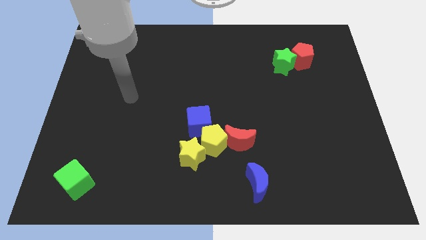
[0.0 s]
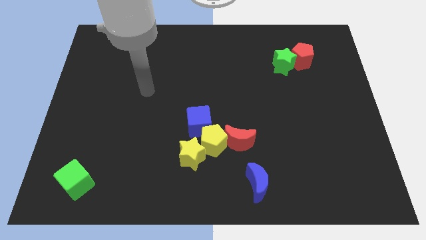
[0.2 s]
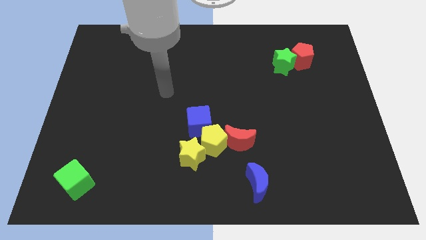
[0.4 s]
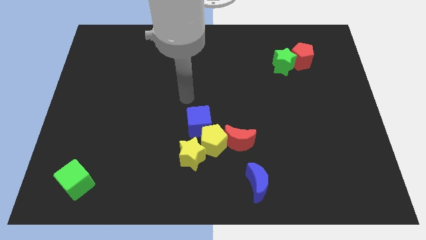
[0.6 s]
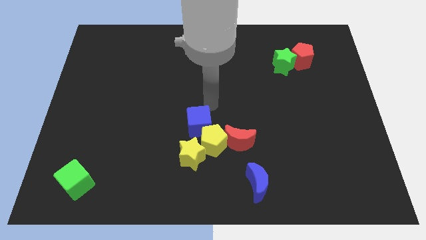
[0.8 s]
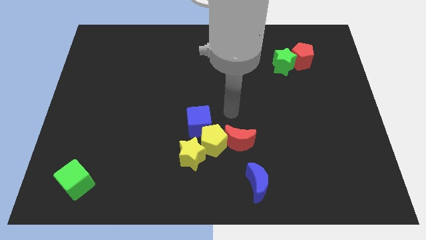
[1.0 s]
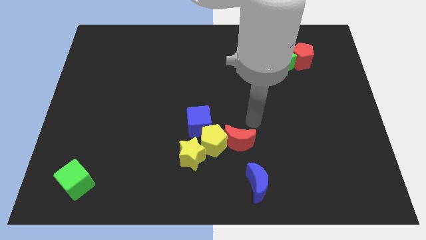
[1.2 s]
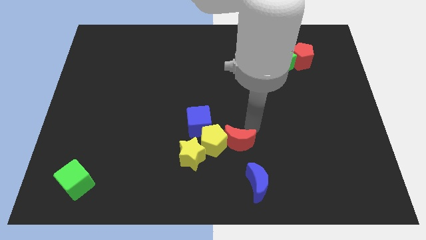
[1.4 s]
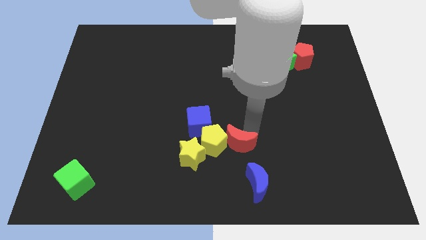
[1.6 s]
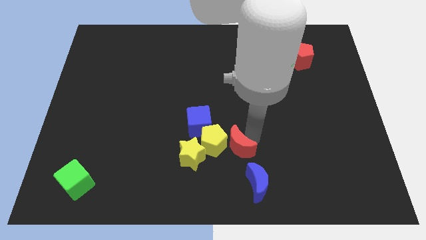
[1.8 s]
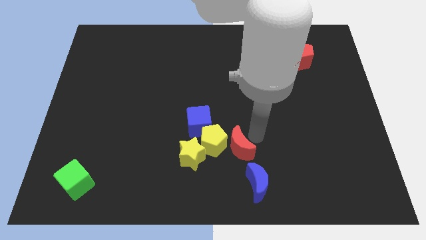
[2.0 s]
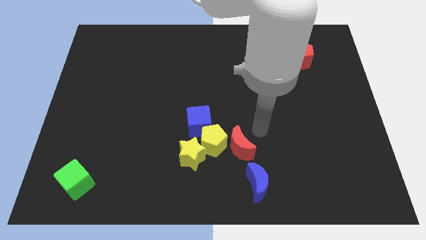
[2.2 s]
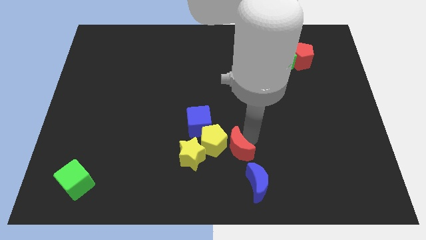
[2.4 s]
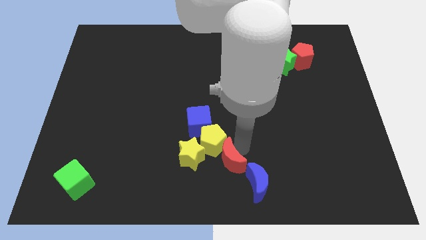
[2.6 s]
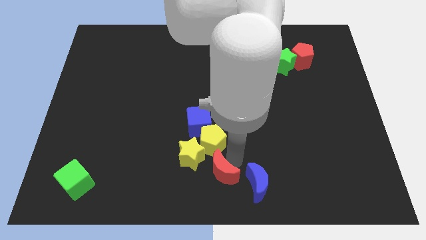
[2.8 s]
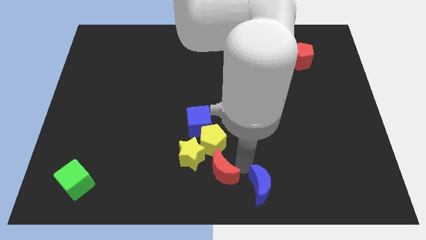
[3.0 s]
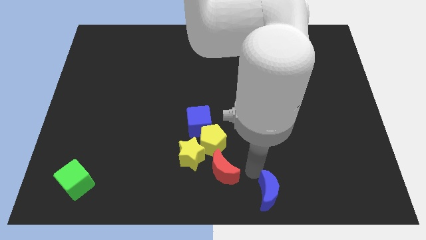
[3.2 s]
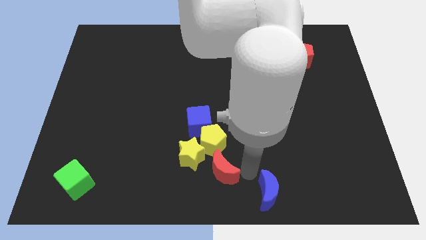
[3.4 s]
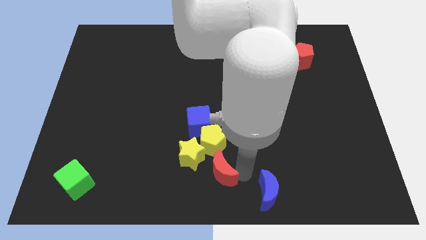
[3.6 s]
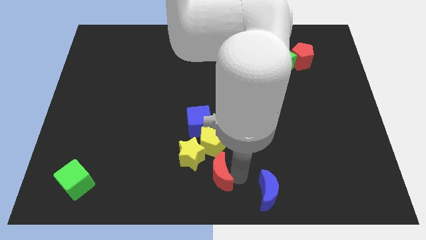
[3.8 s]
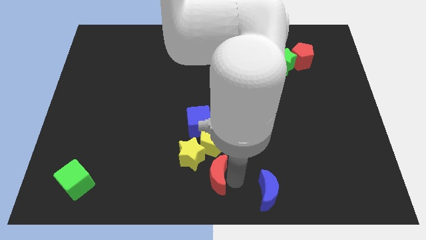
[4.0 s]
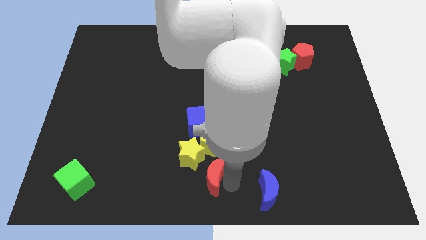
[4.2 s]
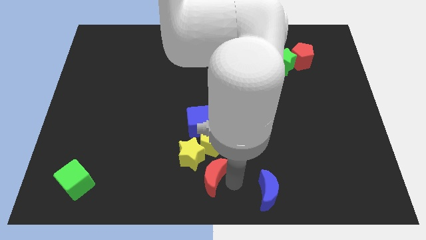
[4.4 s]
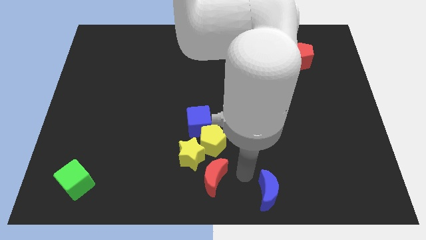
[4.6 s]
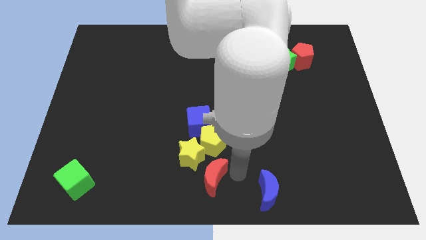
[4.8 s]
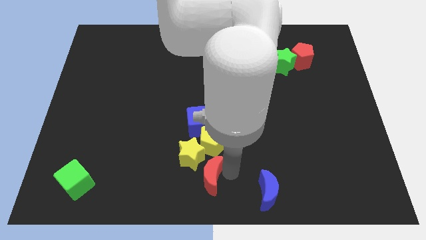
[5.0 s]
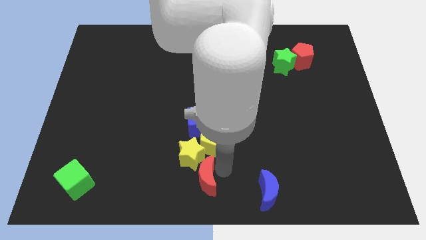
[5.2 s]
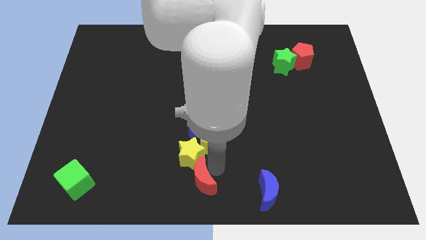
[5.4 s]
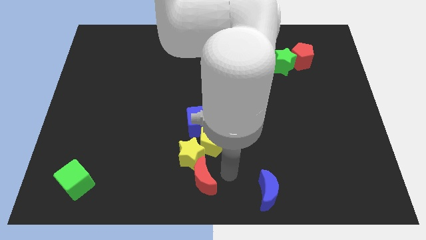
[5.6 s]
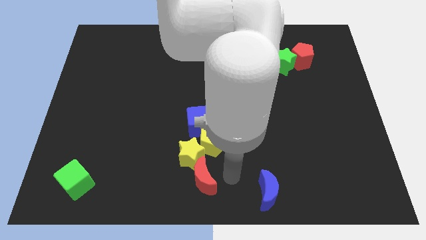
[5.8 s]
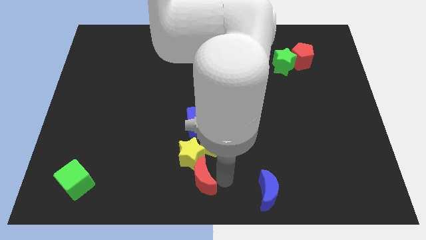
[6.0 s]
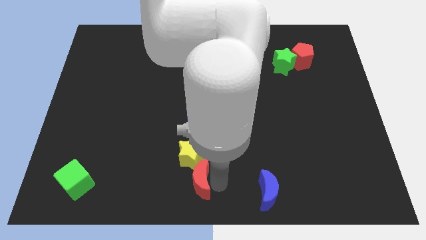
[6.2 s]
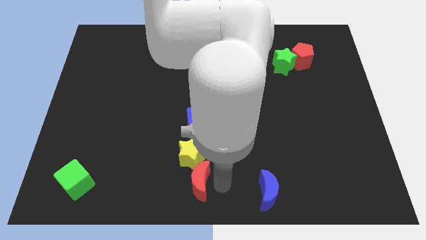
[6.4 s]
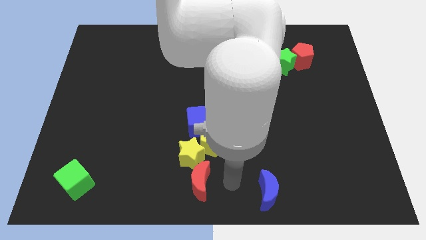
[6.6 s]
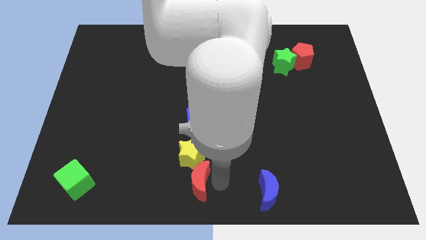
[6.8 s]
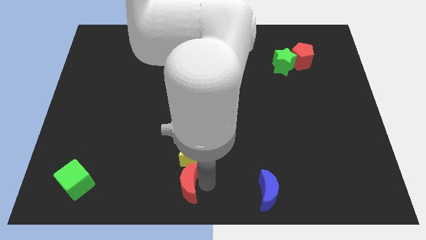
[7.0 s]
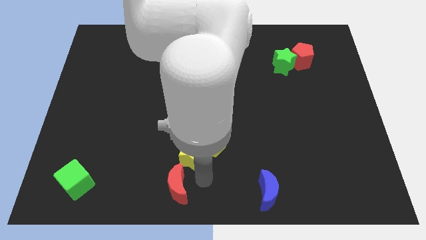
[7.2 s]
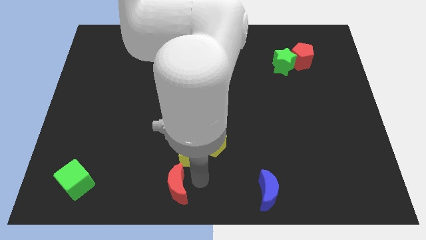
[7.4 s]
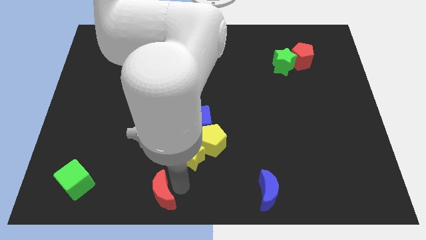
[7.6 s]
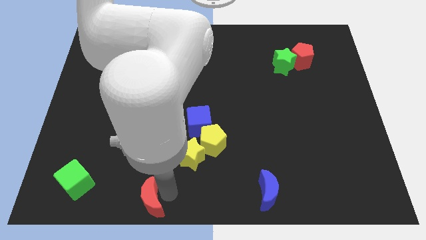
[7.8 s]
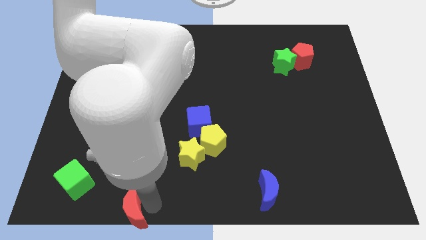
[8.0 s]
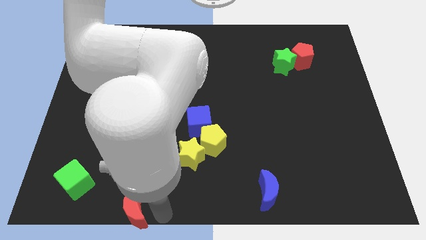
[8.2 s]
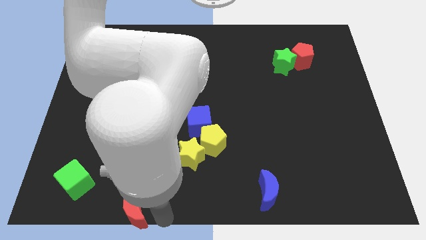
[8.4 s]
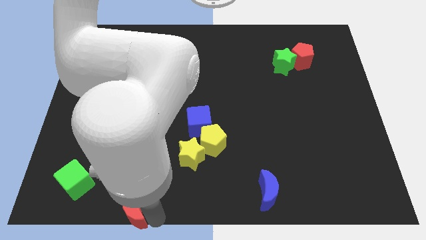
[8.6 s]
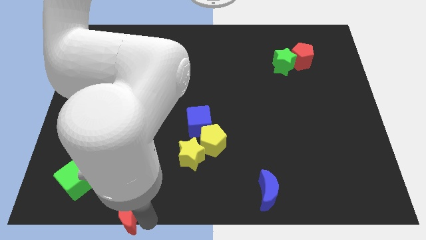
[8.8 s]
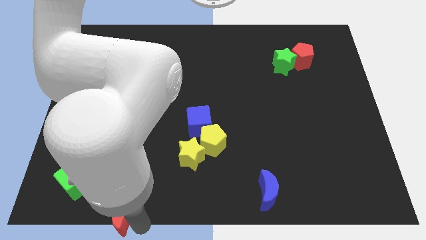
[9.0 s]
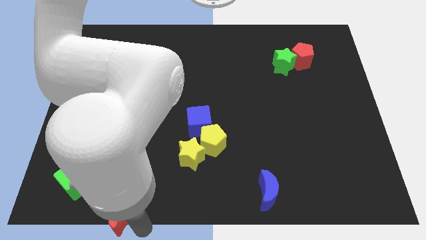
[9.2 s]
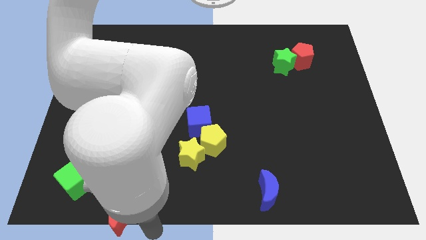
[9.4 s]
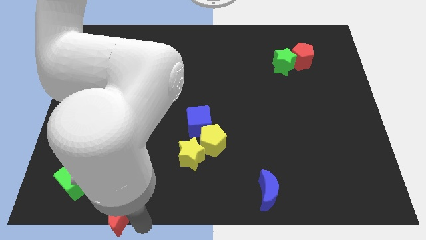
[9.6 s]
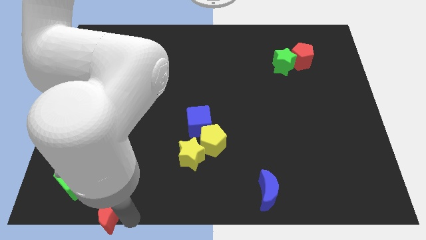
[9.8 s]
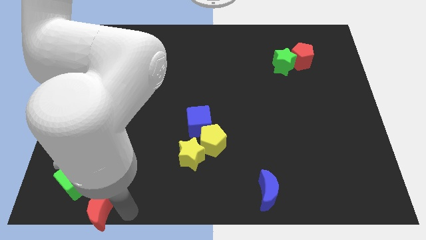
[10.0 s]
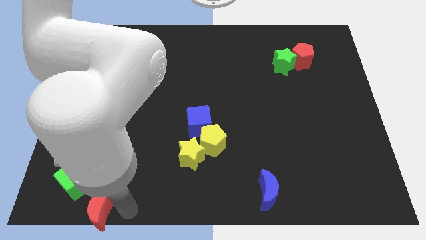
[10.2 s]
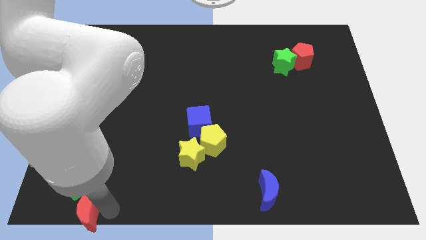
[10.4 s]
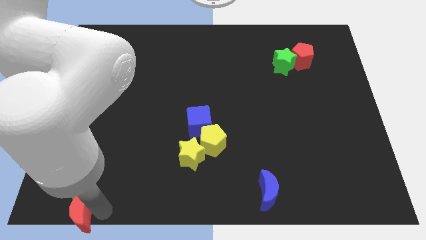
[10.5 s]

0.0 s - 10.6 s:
put the red moon to the bottom left of the board

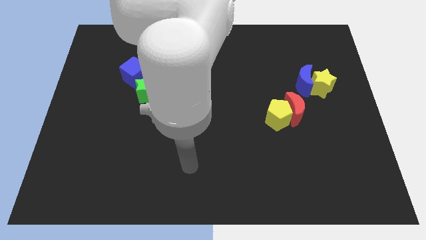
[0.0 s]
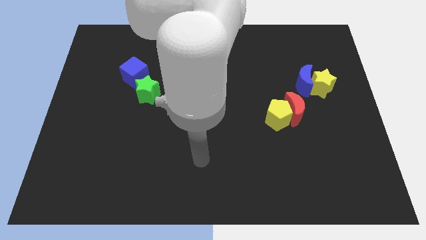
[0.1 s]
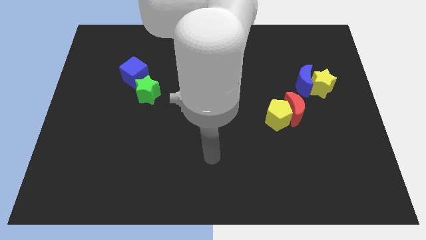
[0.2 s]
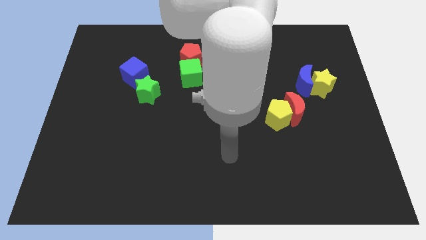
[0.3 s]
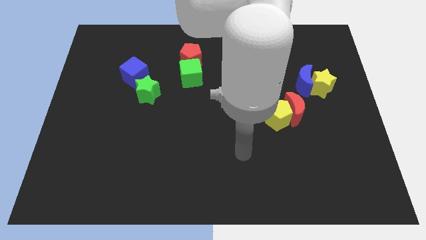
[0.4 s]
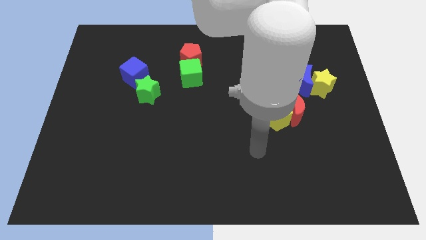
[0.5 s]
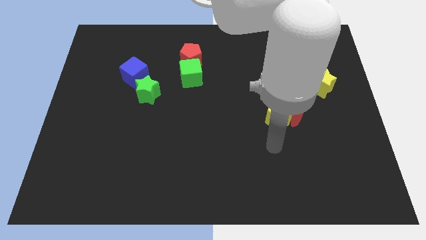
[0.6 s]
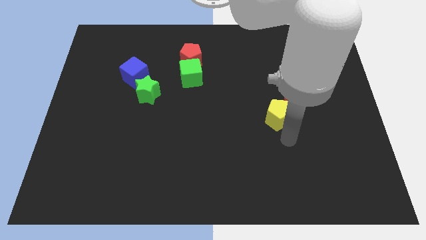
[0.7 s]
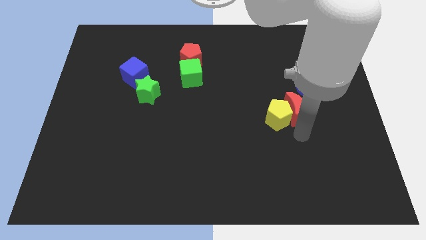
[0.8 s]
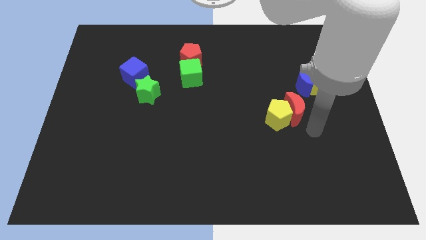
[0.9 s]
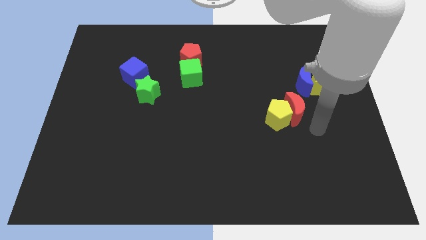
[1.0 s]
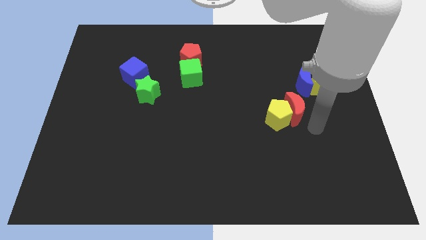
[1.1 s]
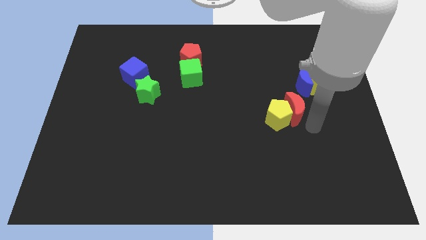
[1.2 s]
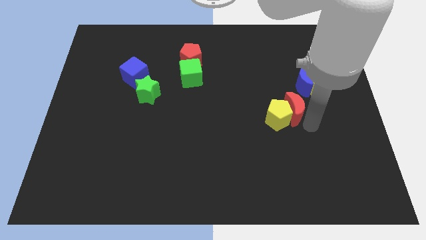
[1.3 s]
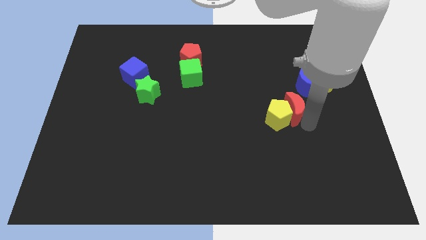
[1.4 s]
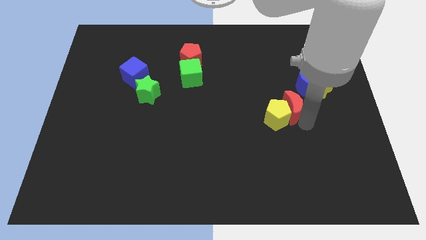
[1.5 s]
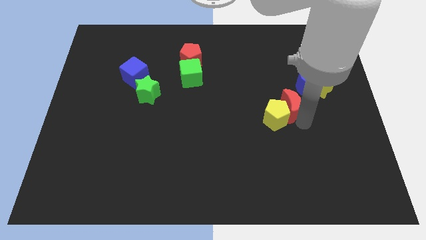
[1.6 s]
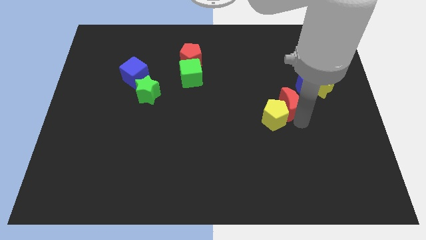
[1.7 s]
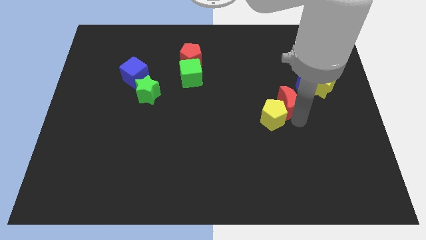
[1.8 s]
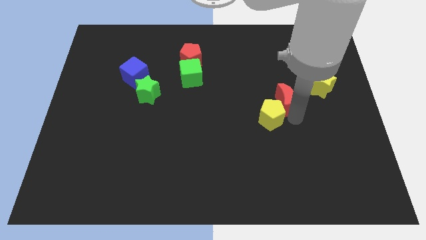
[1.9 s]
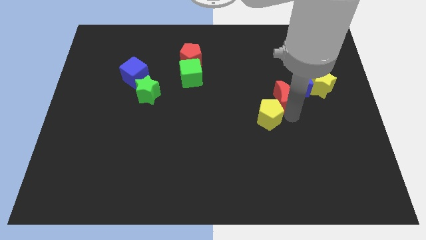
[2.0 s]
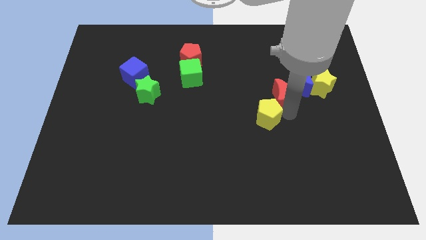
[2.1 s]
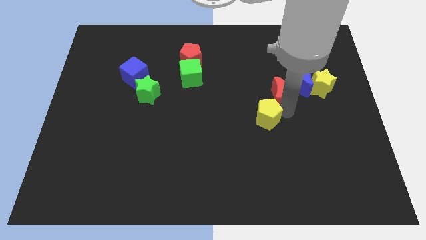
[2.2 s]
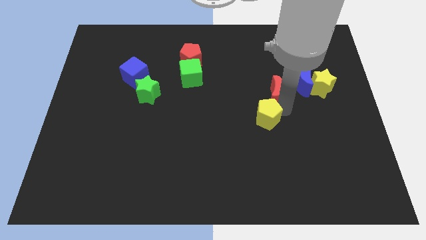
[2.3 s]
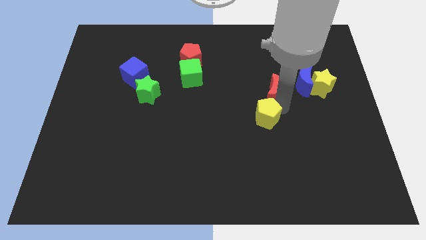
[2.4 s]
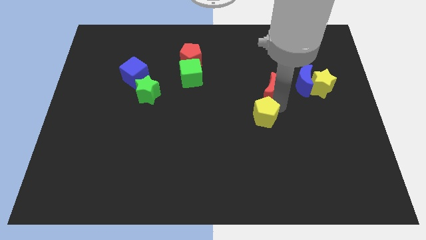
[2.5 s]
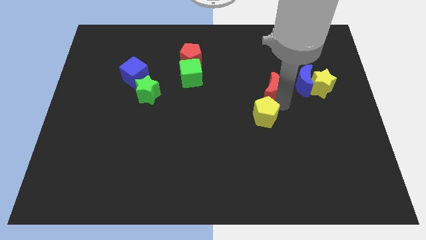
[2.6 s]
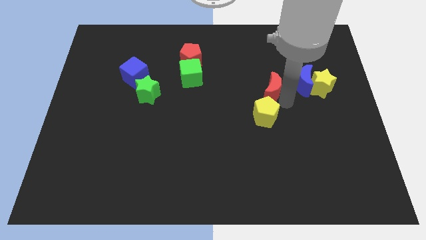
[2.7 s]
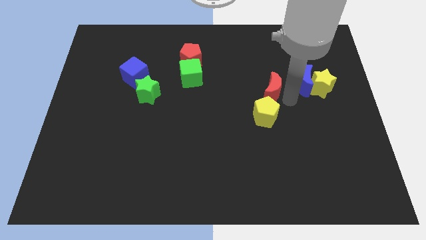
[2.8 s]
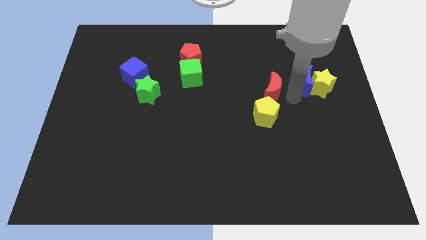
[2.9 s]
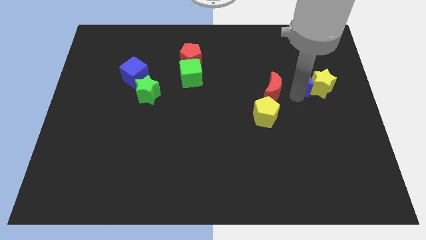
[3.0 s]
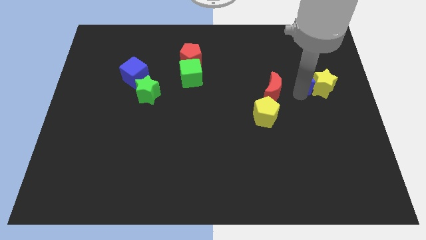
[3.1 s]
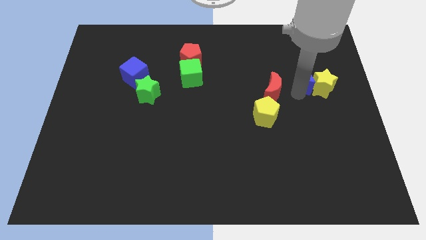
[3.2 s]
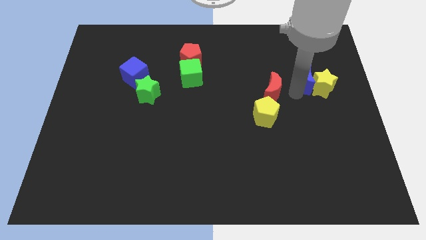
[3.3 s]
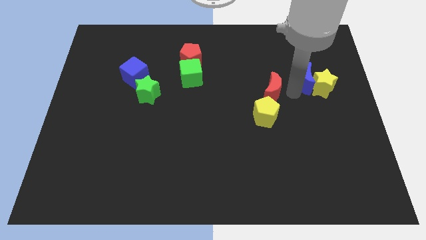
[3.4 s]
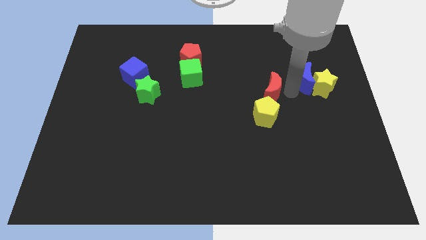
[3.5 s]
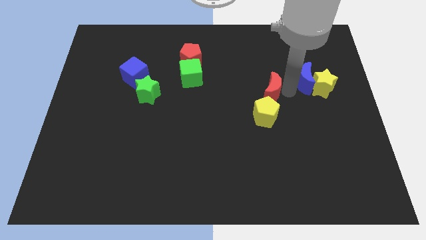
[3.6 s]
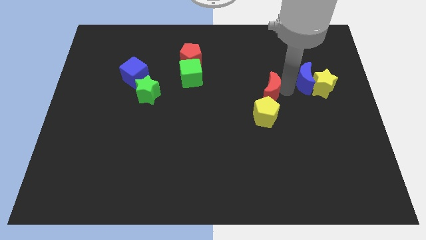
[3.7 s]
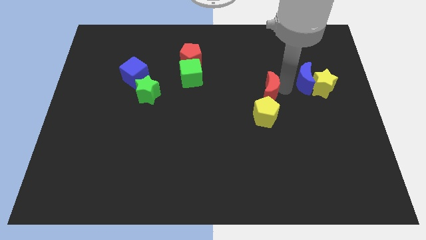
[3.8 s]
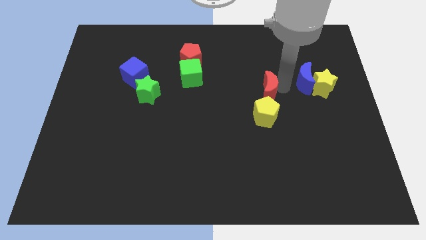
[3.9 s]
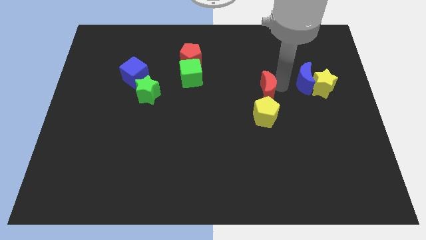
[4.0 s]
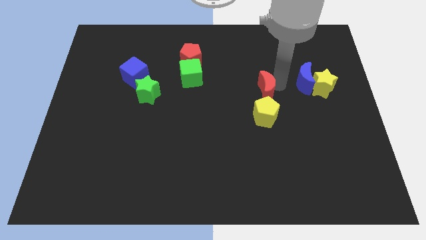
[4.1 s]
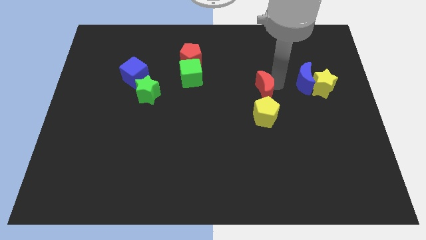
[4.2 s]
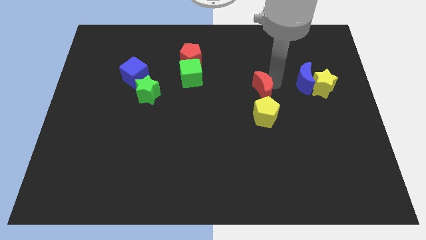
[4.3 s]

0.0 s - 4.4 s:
put the red moon to the center of the board
